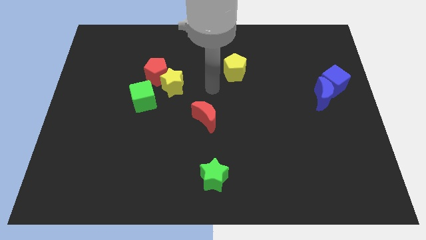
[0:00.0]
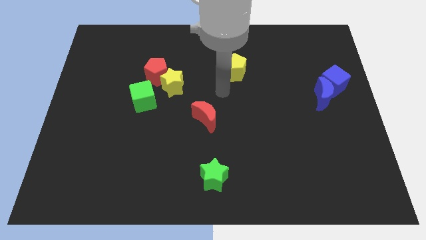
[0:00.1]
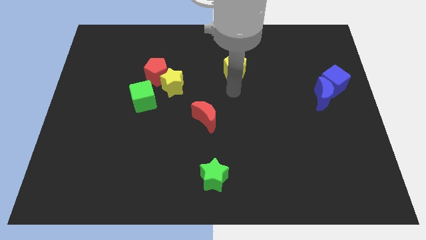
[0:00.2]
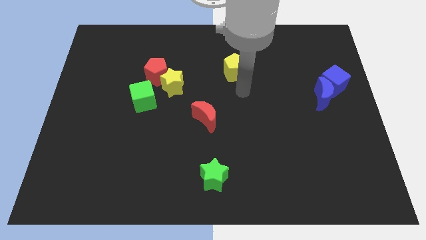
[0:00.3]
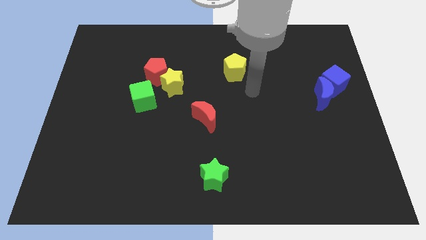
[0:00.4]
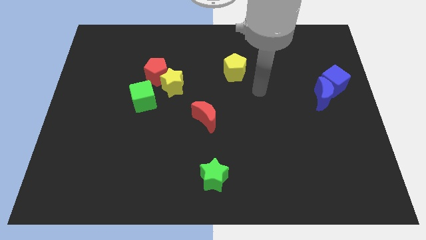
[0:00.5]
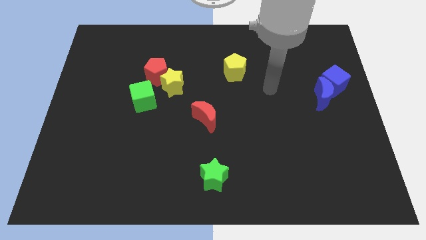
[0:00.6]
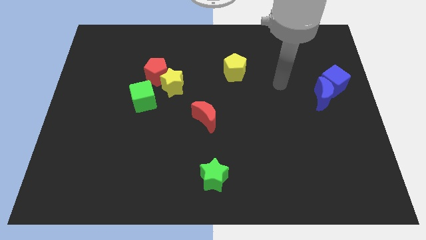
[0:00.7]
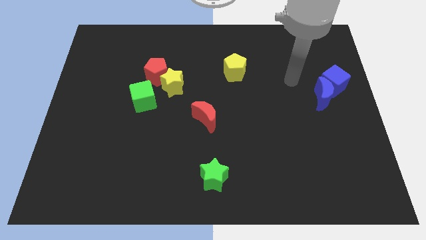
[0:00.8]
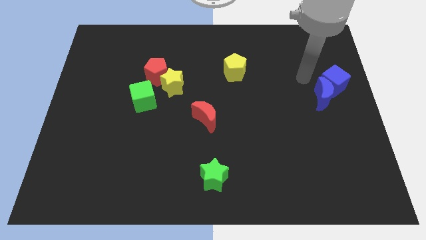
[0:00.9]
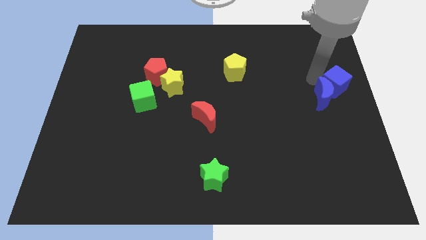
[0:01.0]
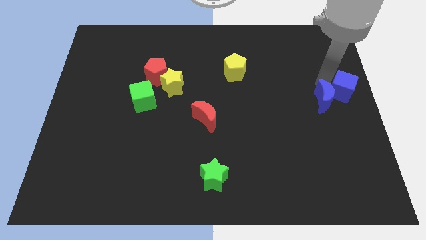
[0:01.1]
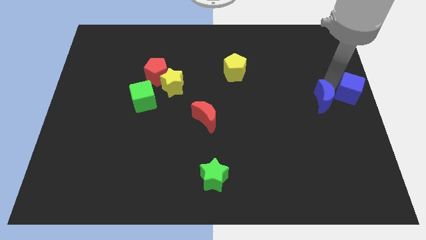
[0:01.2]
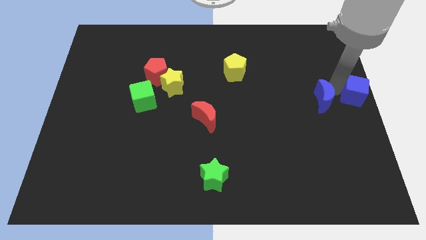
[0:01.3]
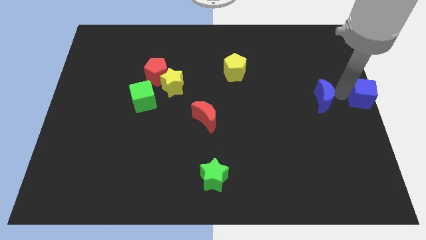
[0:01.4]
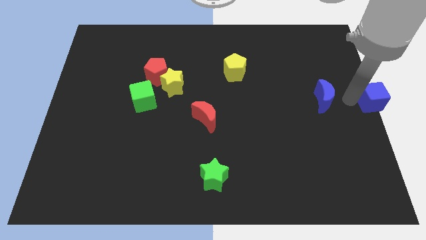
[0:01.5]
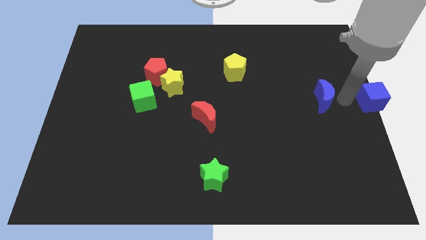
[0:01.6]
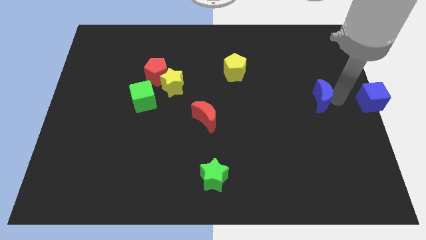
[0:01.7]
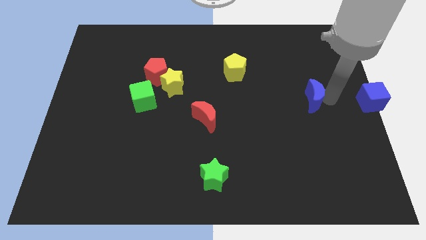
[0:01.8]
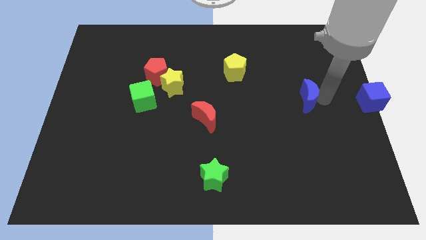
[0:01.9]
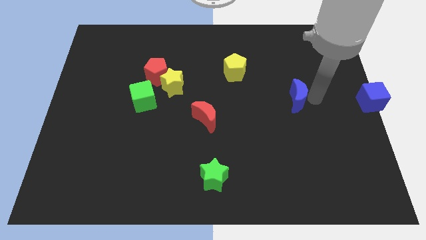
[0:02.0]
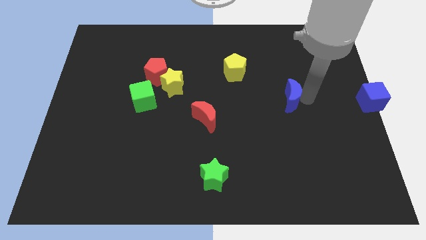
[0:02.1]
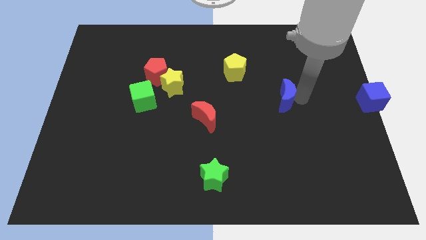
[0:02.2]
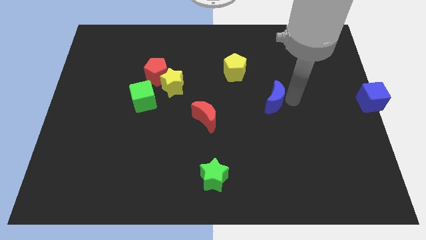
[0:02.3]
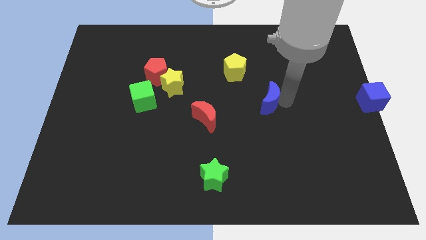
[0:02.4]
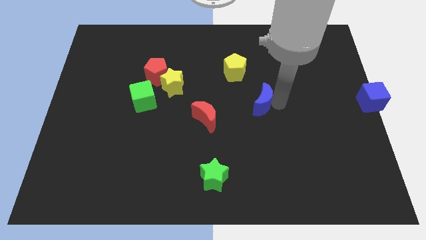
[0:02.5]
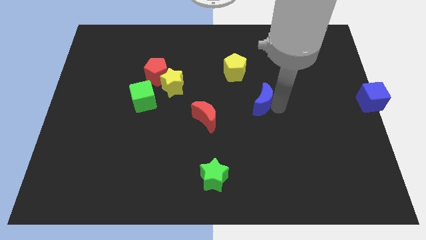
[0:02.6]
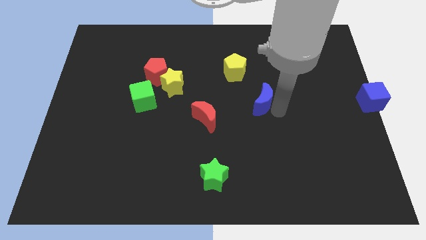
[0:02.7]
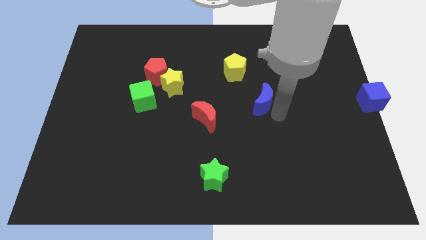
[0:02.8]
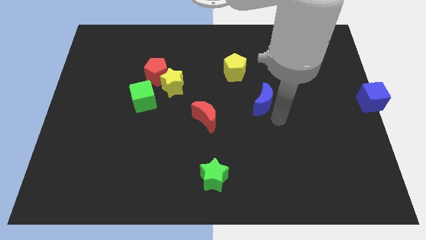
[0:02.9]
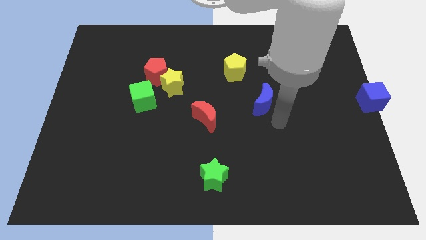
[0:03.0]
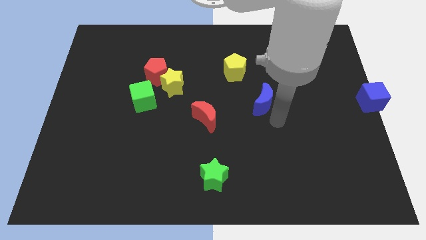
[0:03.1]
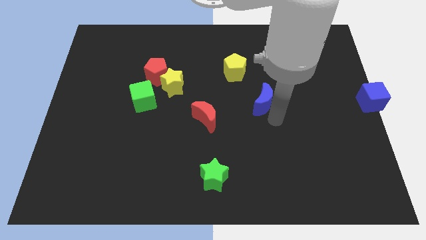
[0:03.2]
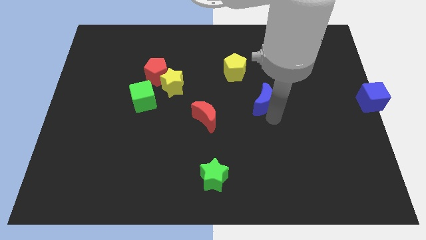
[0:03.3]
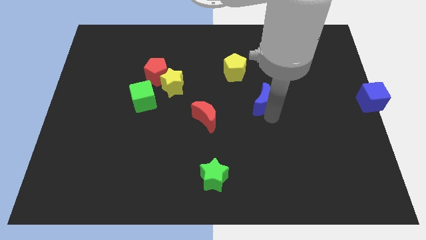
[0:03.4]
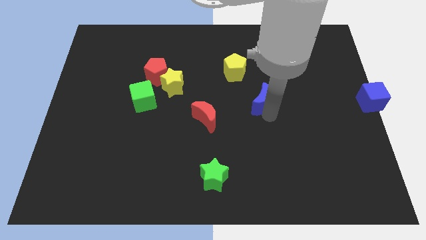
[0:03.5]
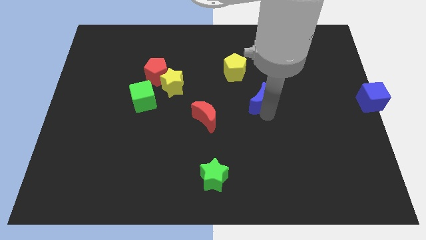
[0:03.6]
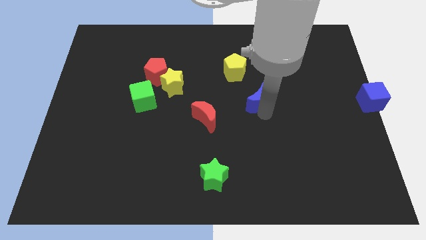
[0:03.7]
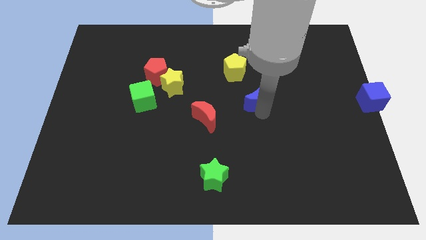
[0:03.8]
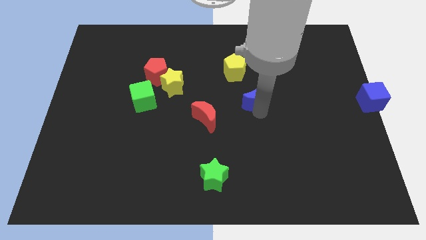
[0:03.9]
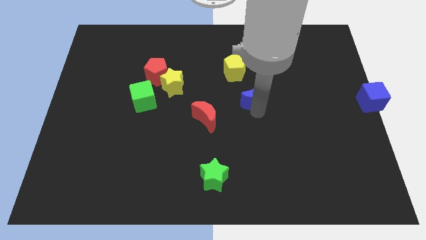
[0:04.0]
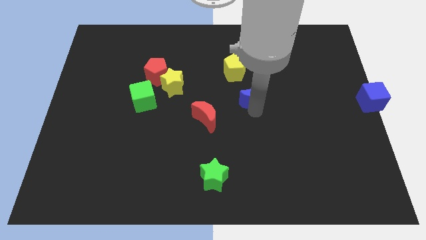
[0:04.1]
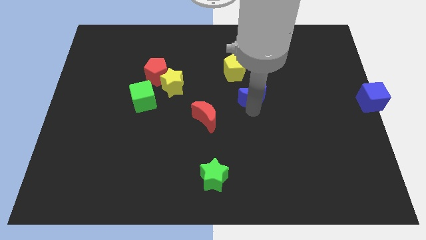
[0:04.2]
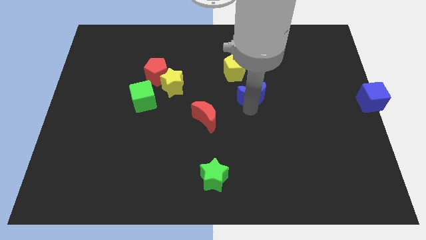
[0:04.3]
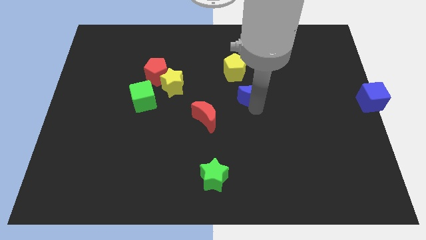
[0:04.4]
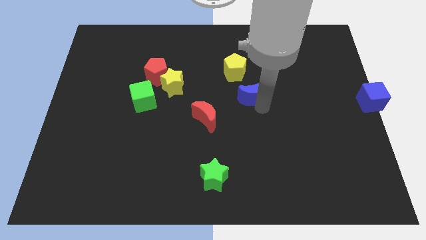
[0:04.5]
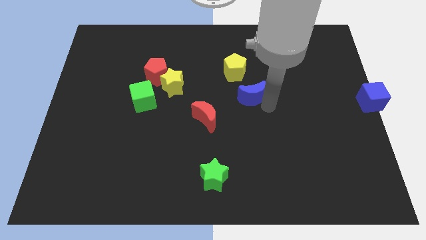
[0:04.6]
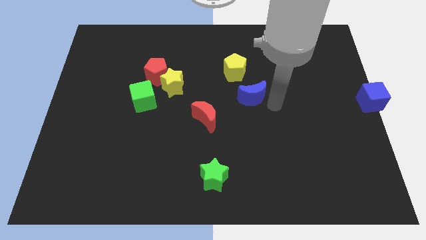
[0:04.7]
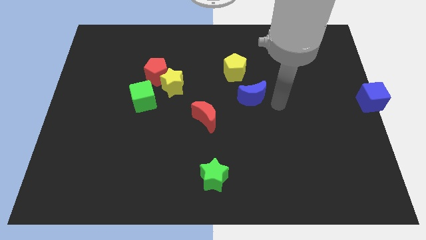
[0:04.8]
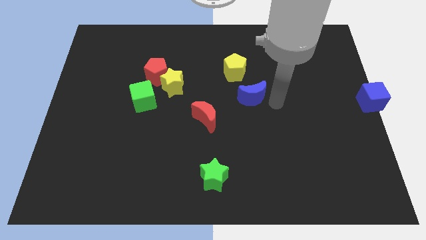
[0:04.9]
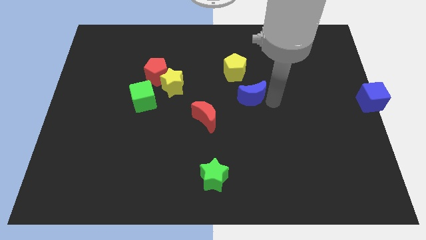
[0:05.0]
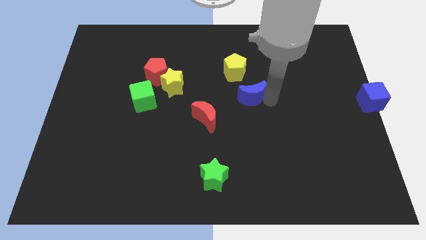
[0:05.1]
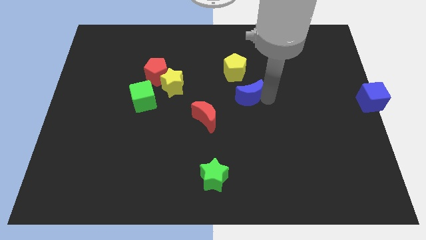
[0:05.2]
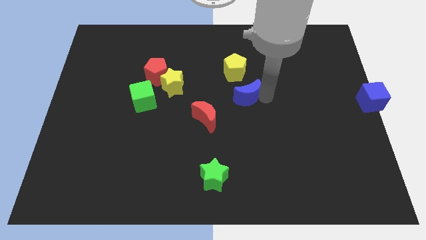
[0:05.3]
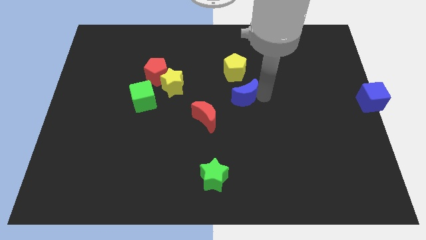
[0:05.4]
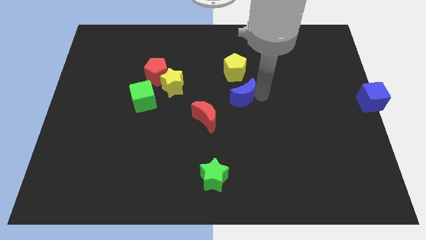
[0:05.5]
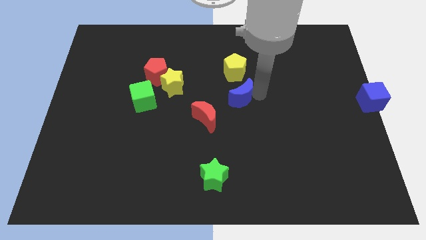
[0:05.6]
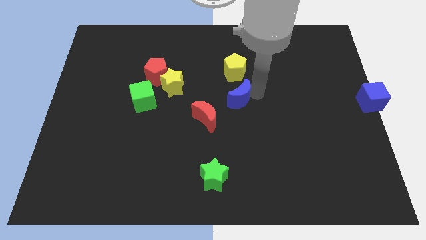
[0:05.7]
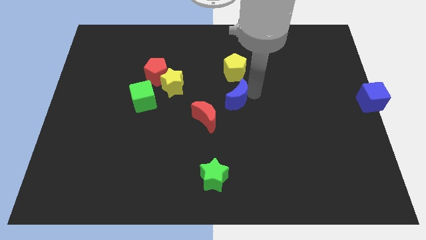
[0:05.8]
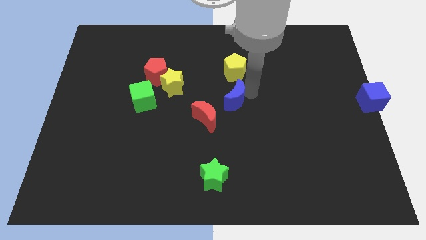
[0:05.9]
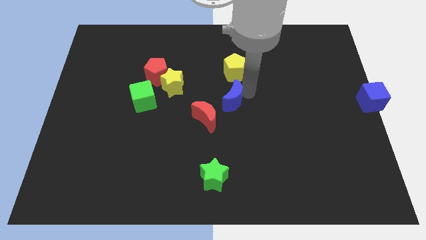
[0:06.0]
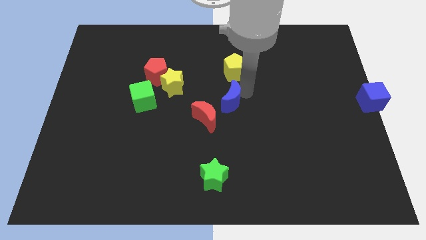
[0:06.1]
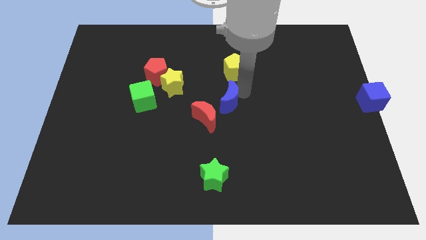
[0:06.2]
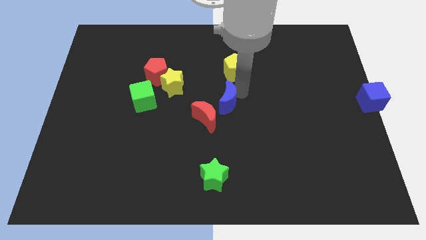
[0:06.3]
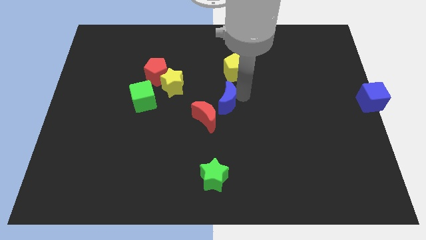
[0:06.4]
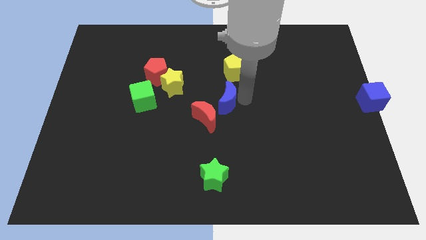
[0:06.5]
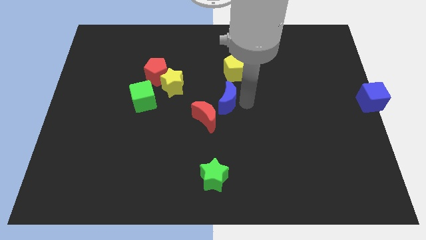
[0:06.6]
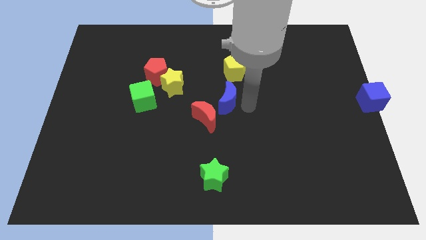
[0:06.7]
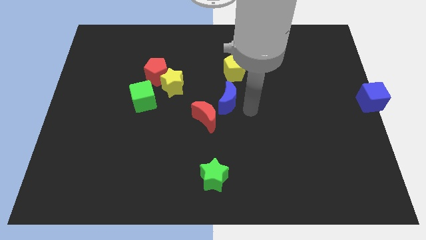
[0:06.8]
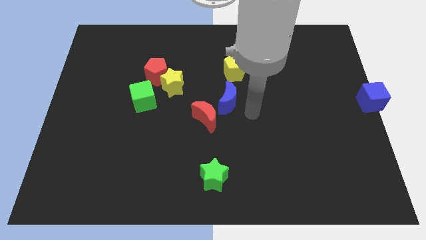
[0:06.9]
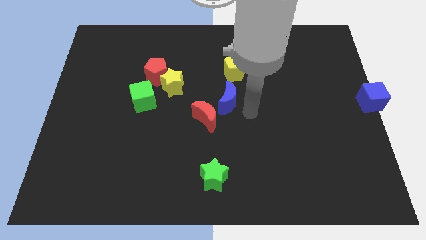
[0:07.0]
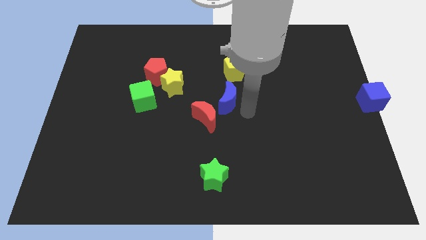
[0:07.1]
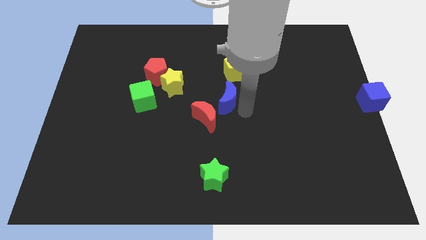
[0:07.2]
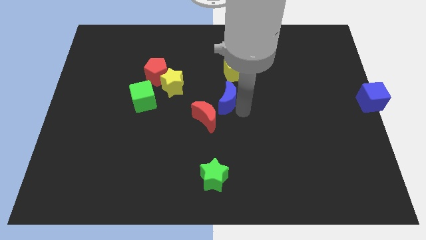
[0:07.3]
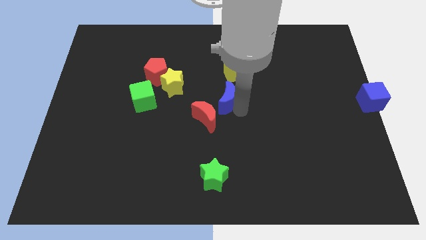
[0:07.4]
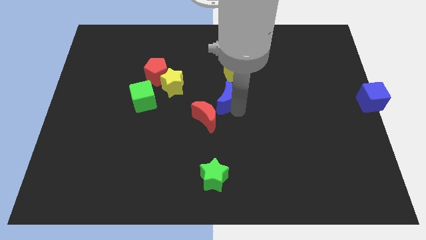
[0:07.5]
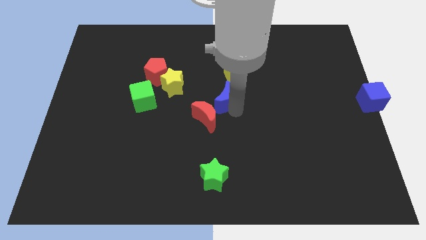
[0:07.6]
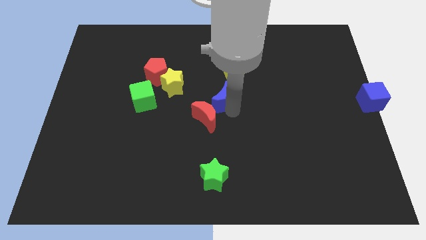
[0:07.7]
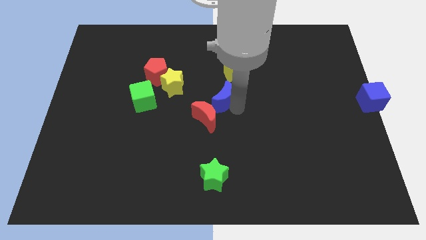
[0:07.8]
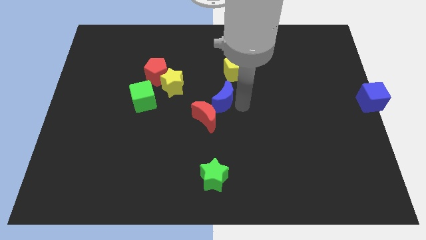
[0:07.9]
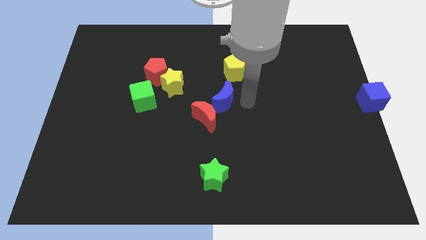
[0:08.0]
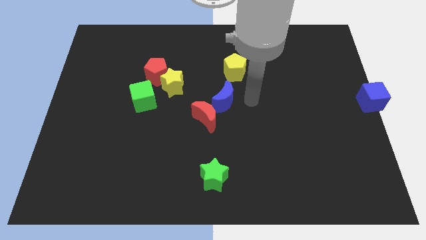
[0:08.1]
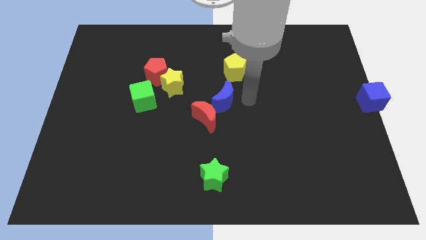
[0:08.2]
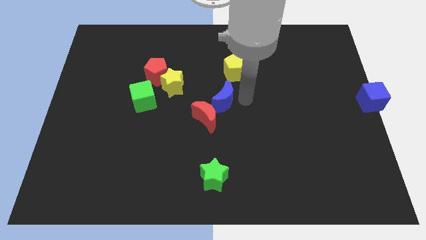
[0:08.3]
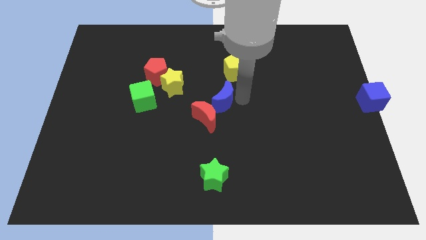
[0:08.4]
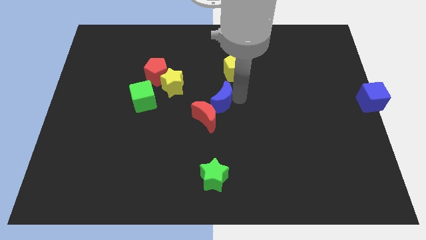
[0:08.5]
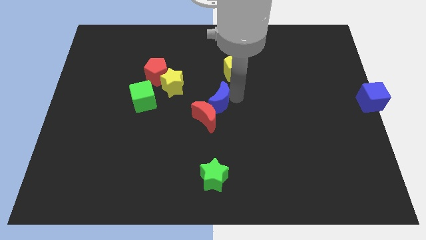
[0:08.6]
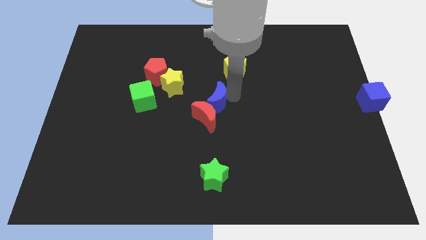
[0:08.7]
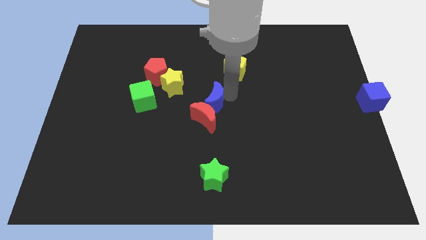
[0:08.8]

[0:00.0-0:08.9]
push the blue moon to the bottom right side of the yellow star
